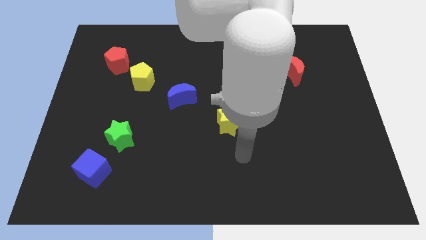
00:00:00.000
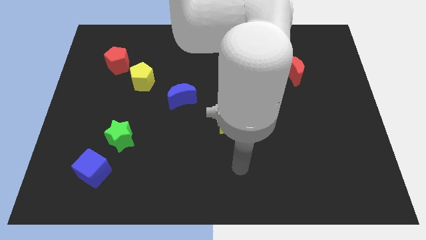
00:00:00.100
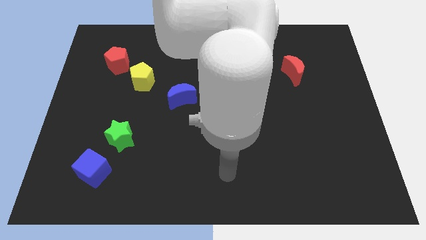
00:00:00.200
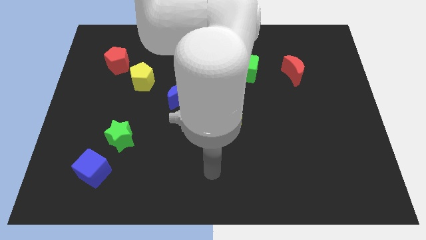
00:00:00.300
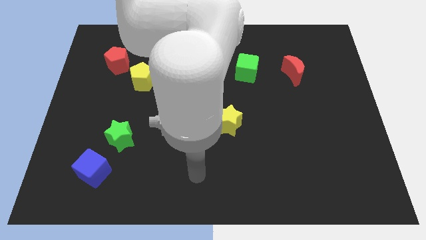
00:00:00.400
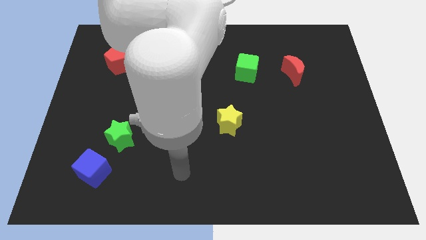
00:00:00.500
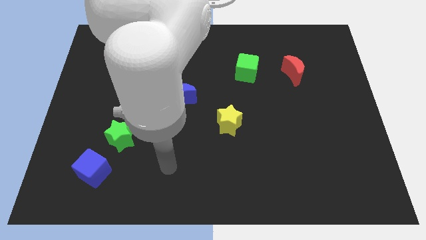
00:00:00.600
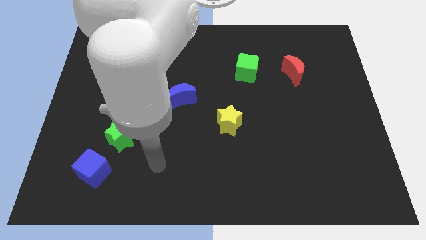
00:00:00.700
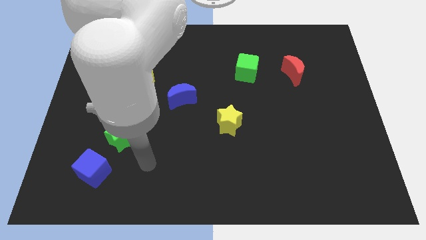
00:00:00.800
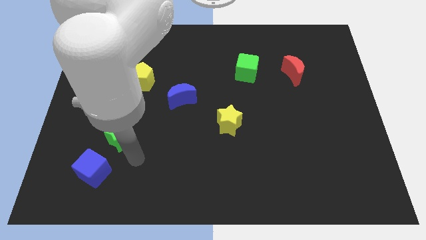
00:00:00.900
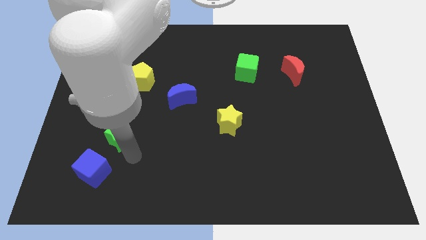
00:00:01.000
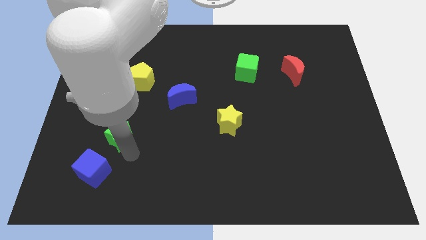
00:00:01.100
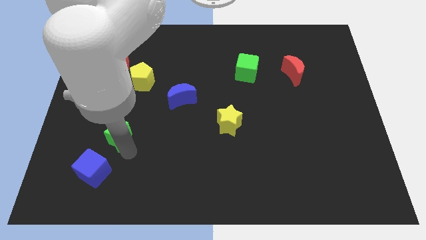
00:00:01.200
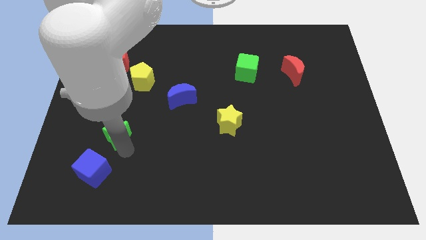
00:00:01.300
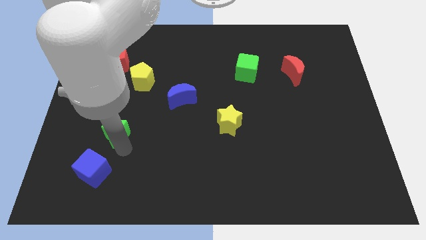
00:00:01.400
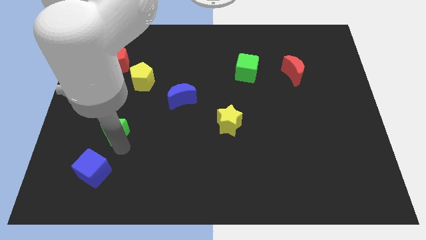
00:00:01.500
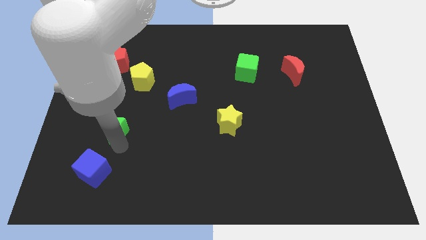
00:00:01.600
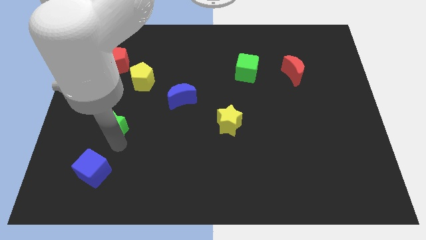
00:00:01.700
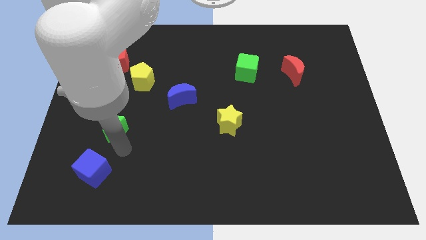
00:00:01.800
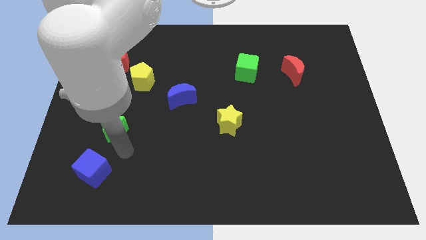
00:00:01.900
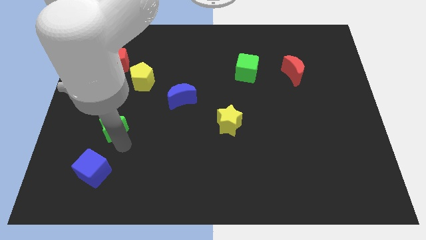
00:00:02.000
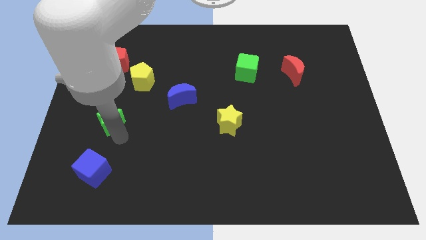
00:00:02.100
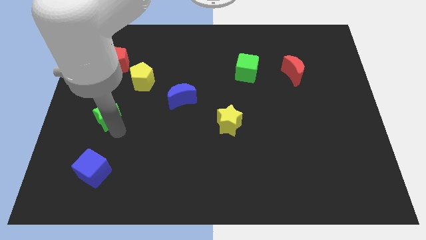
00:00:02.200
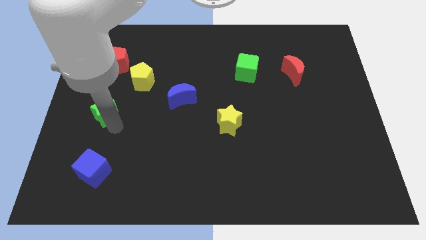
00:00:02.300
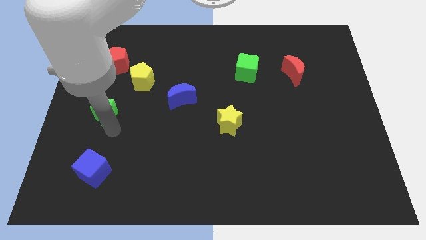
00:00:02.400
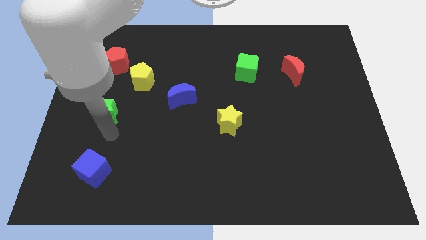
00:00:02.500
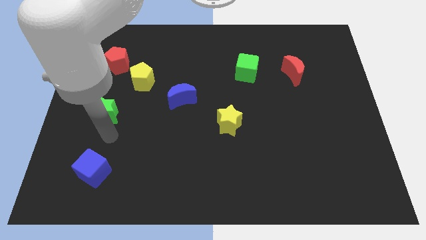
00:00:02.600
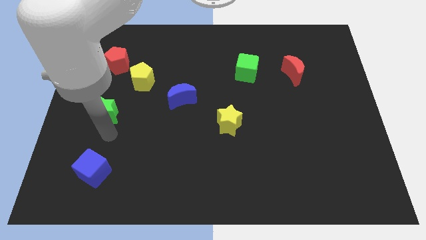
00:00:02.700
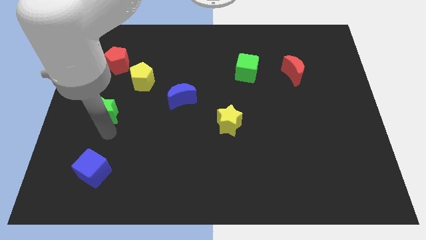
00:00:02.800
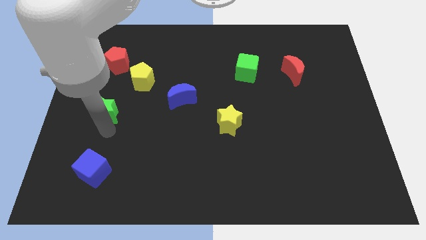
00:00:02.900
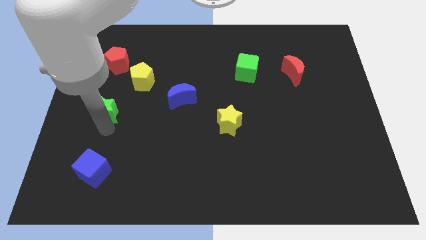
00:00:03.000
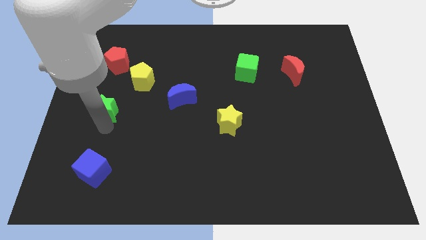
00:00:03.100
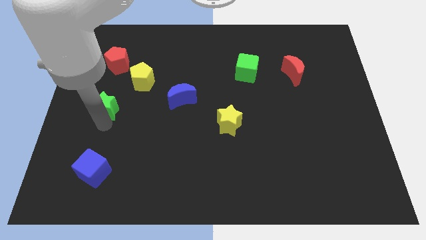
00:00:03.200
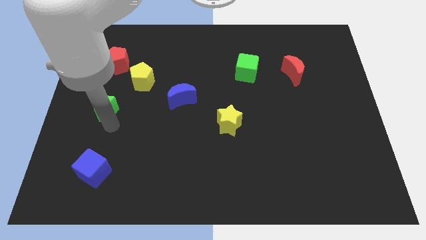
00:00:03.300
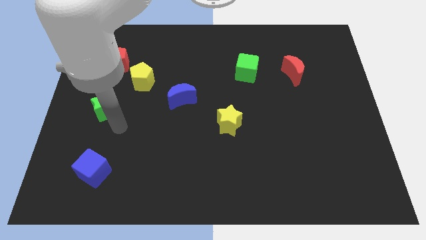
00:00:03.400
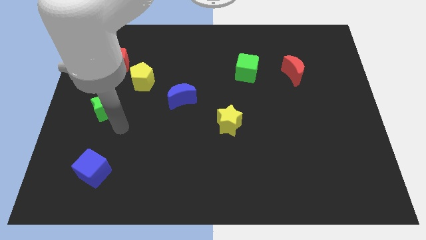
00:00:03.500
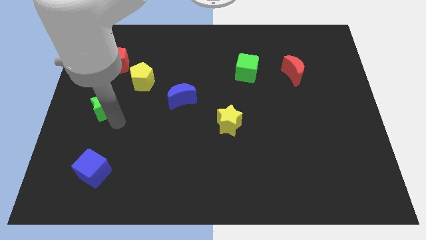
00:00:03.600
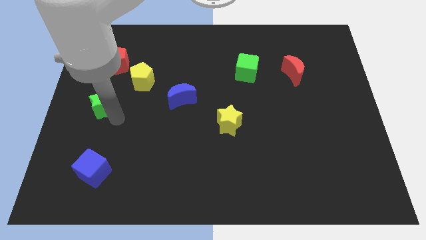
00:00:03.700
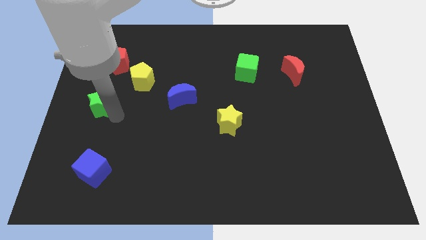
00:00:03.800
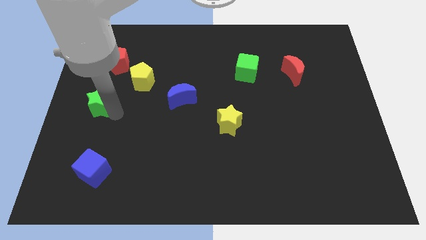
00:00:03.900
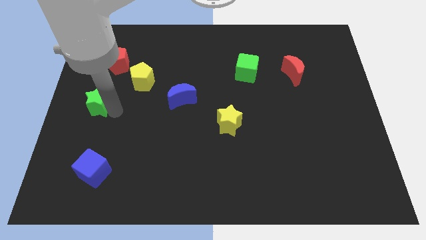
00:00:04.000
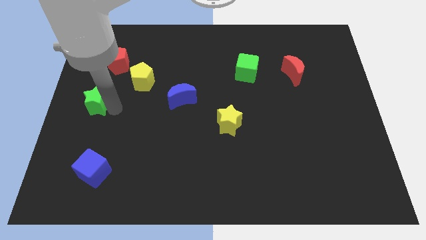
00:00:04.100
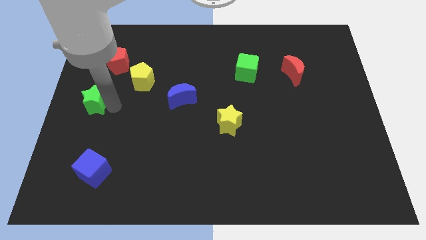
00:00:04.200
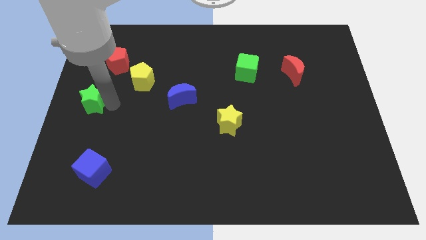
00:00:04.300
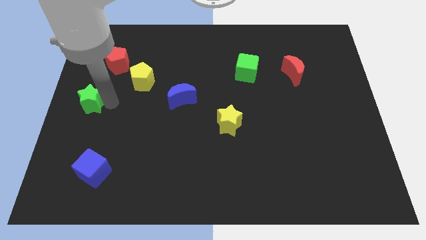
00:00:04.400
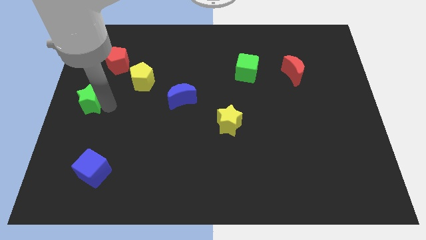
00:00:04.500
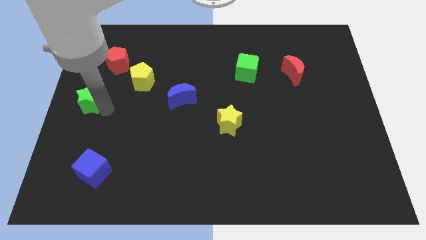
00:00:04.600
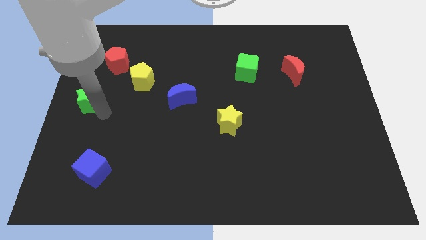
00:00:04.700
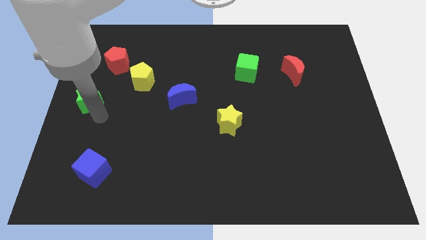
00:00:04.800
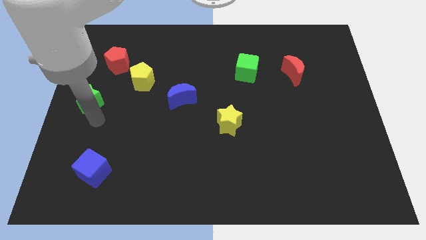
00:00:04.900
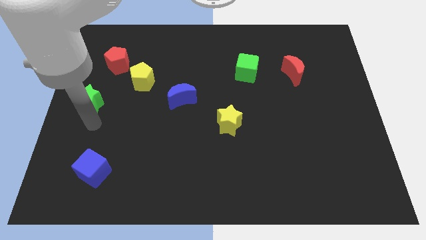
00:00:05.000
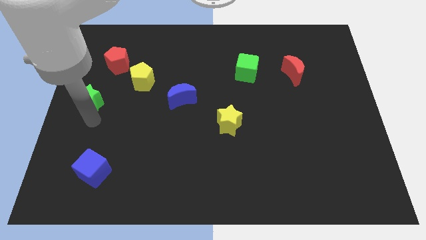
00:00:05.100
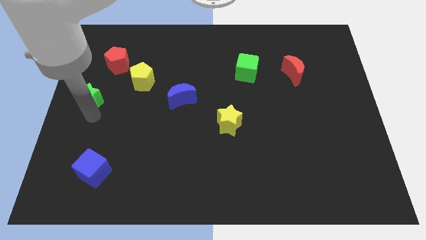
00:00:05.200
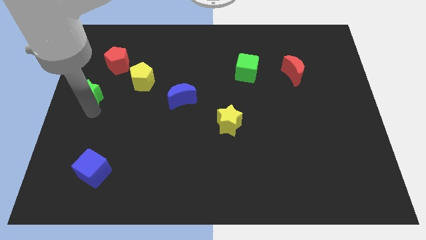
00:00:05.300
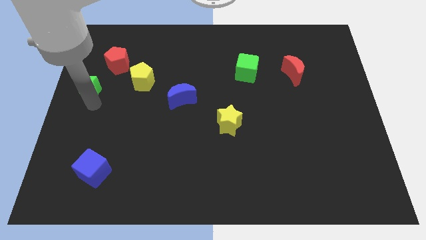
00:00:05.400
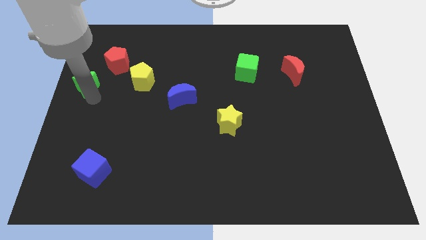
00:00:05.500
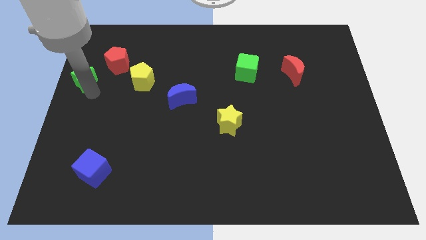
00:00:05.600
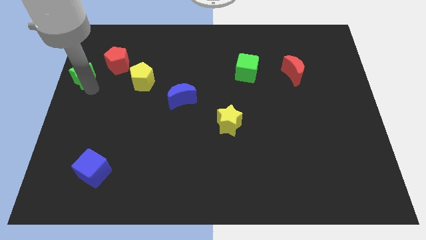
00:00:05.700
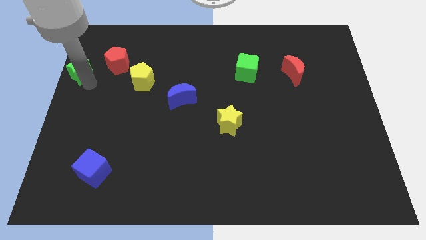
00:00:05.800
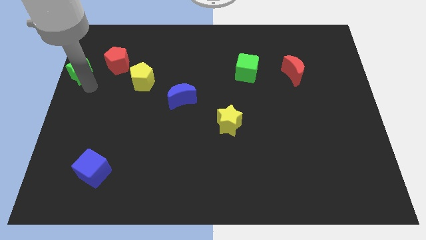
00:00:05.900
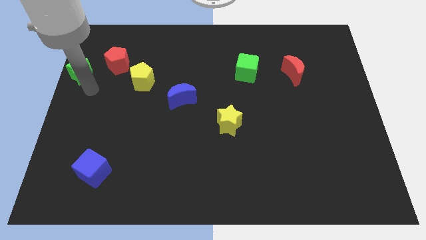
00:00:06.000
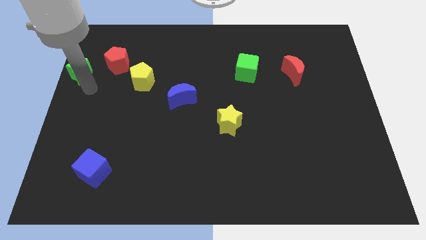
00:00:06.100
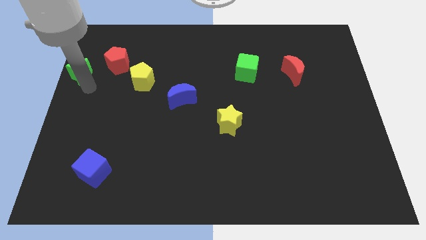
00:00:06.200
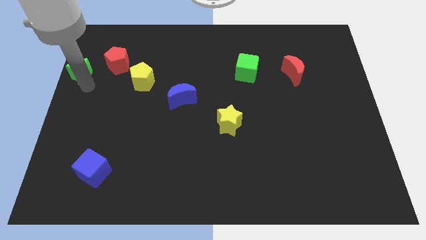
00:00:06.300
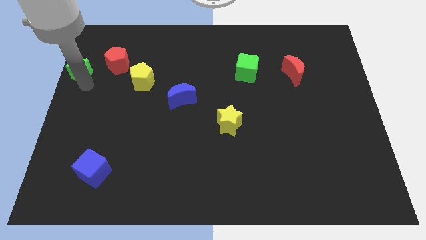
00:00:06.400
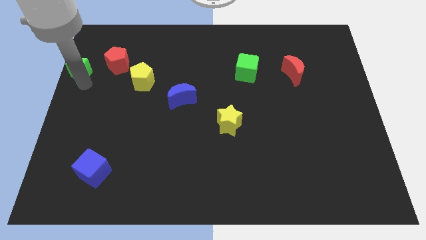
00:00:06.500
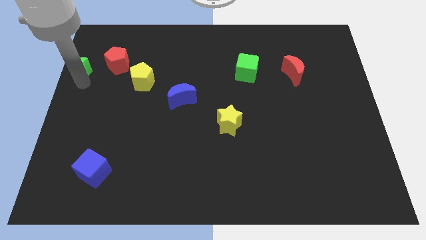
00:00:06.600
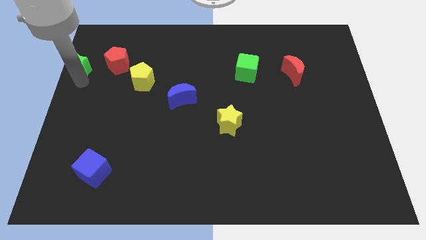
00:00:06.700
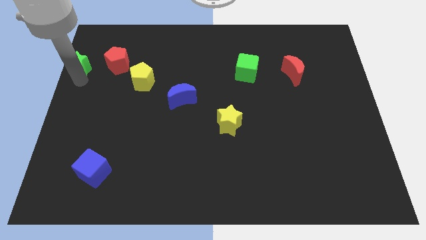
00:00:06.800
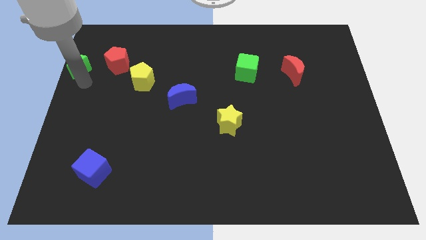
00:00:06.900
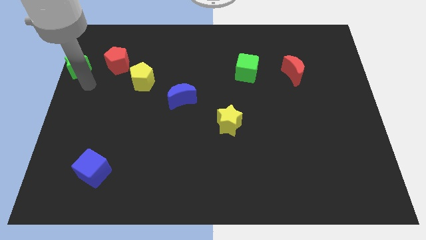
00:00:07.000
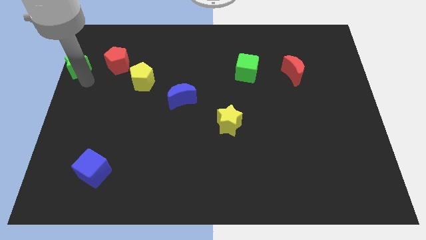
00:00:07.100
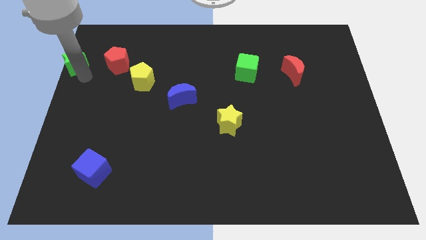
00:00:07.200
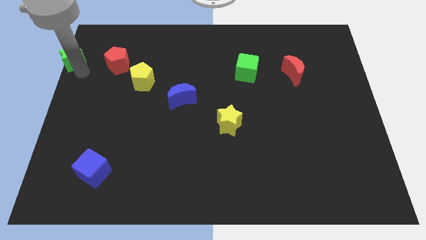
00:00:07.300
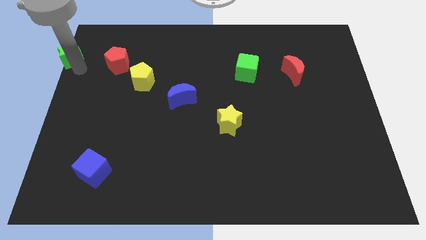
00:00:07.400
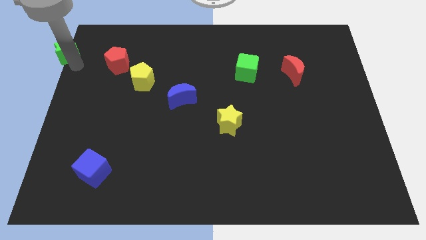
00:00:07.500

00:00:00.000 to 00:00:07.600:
slide the green star to the upper left corner
